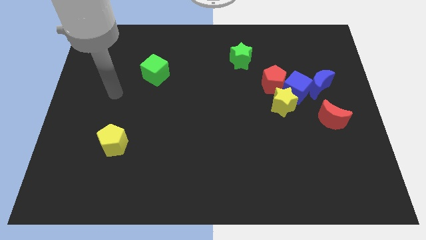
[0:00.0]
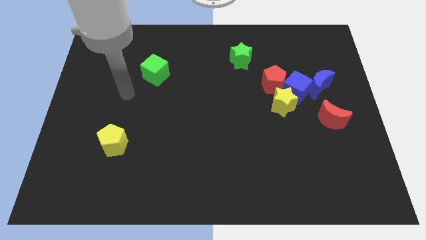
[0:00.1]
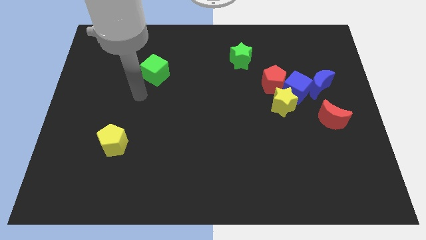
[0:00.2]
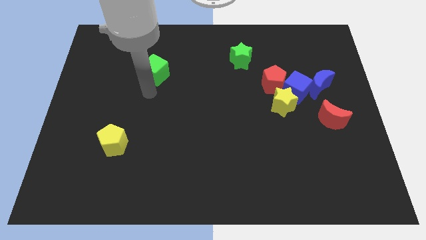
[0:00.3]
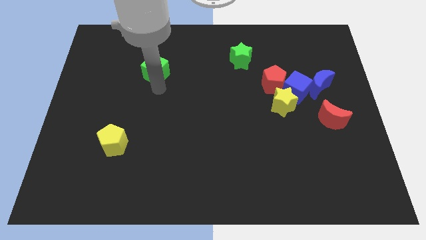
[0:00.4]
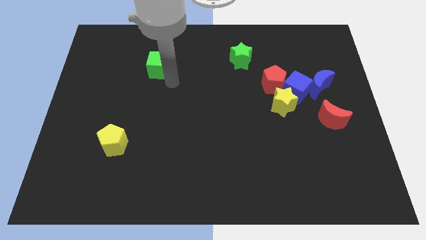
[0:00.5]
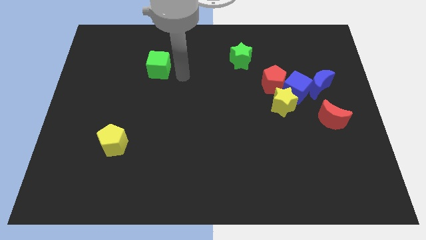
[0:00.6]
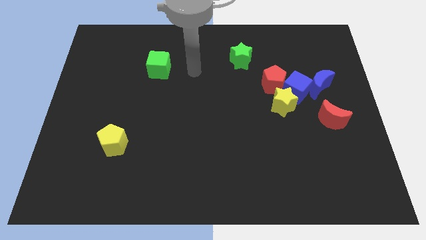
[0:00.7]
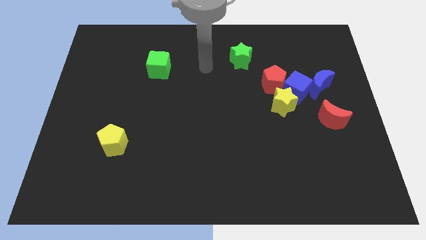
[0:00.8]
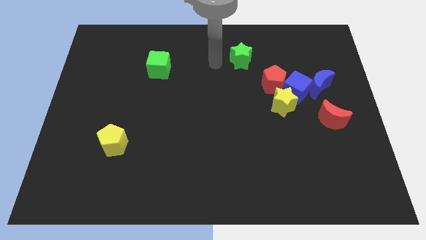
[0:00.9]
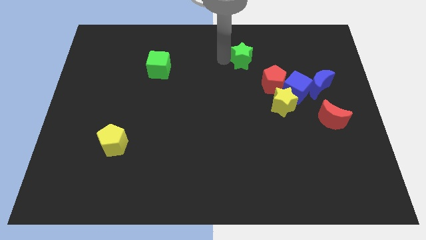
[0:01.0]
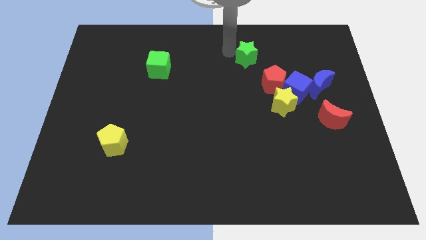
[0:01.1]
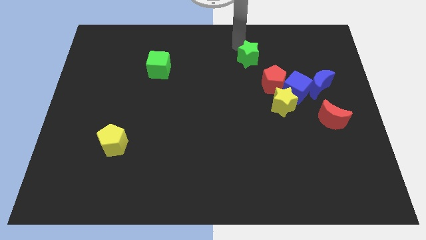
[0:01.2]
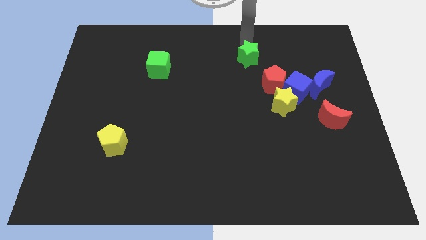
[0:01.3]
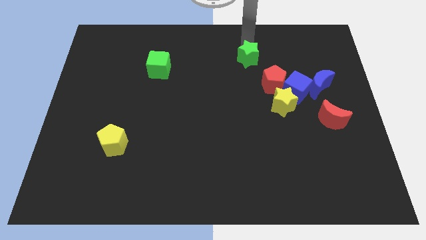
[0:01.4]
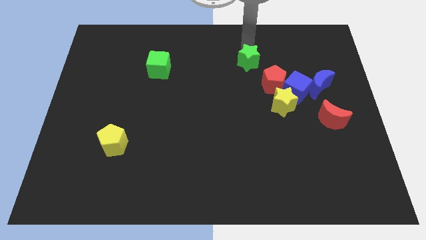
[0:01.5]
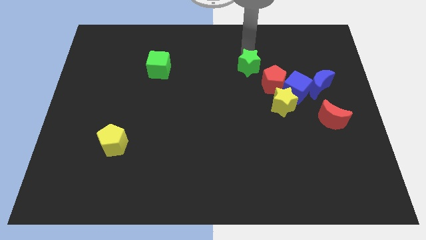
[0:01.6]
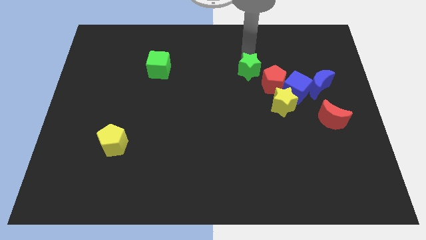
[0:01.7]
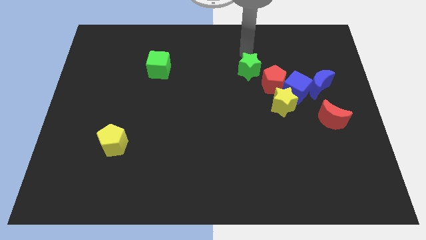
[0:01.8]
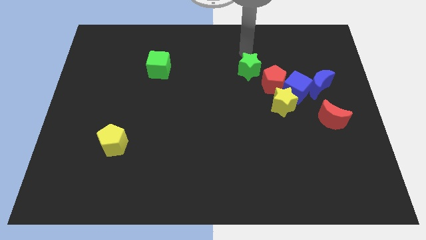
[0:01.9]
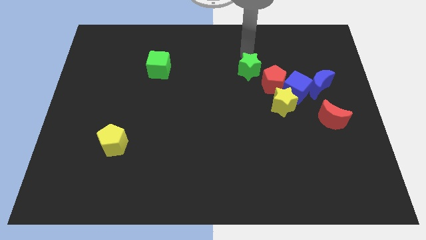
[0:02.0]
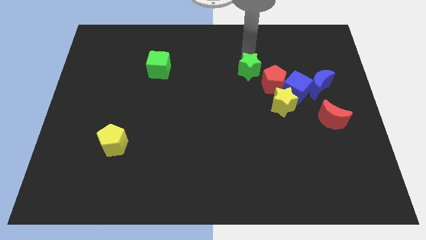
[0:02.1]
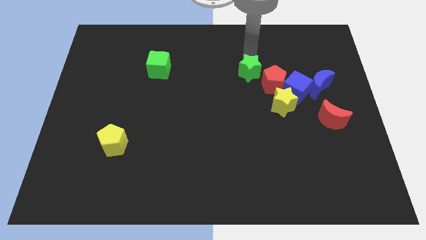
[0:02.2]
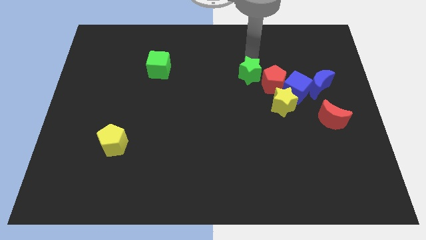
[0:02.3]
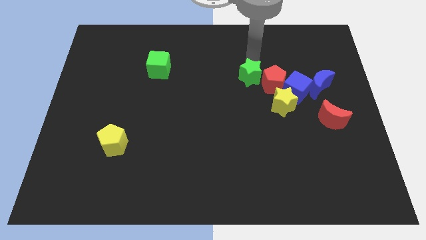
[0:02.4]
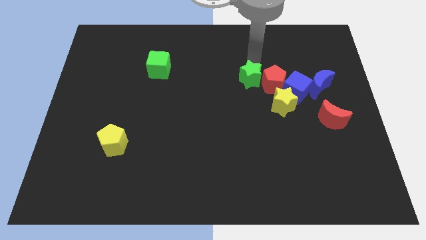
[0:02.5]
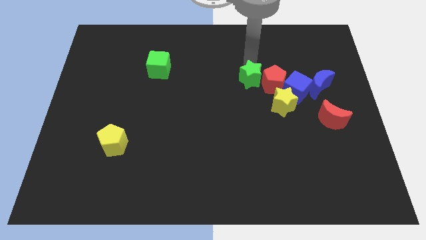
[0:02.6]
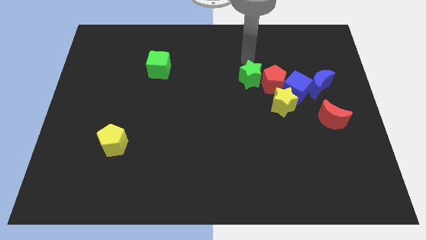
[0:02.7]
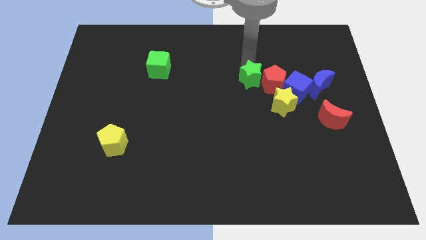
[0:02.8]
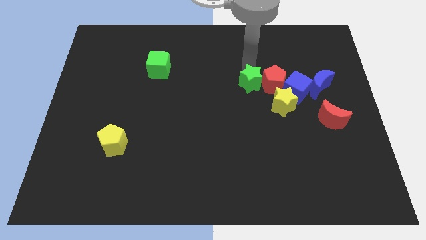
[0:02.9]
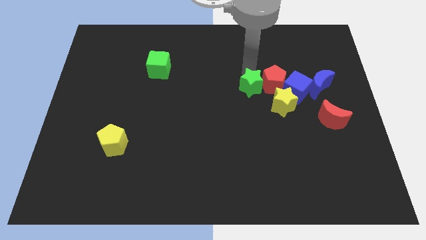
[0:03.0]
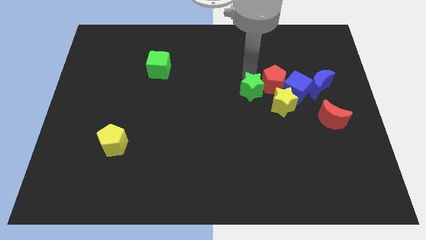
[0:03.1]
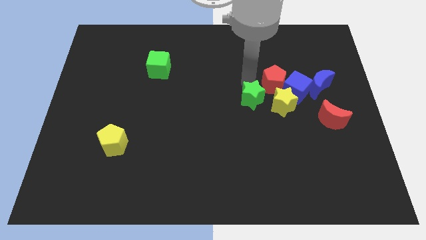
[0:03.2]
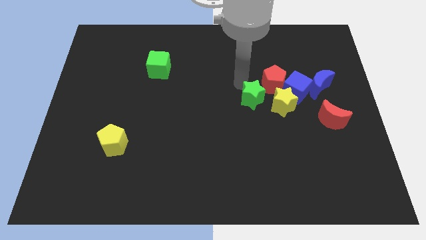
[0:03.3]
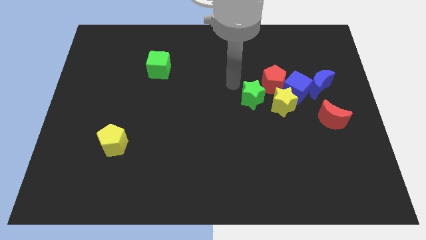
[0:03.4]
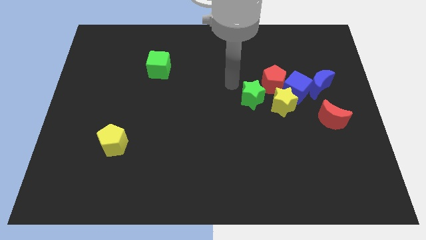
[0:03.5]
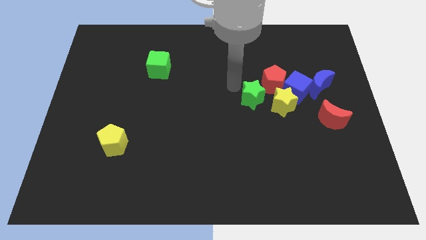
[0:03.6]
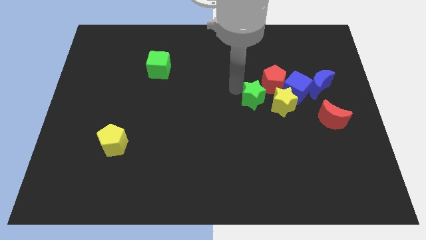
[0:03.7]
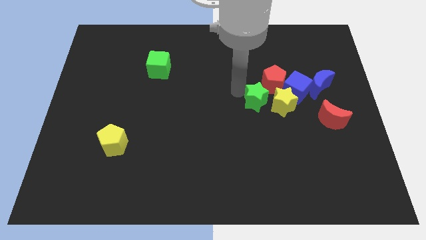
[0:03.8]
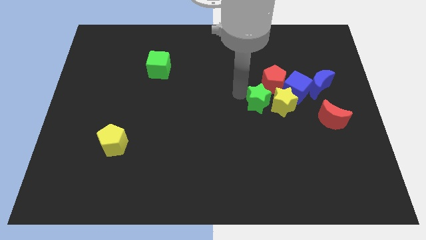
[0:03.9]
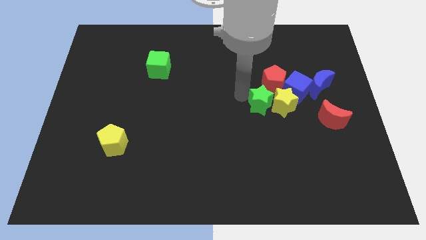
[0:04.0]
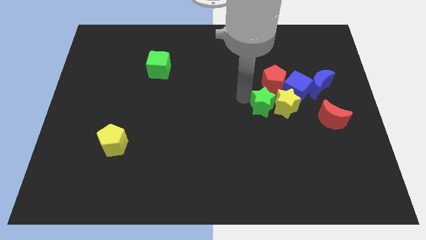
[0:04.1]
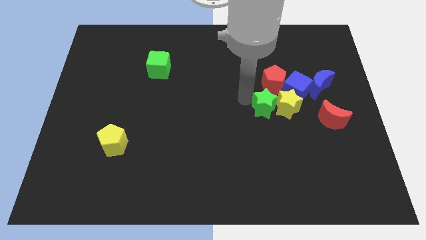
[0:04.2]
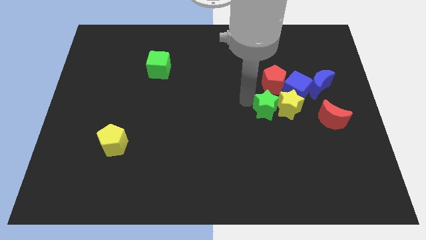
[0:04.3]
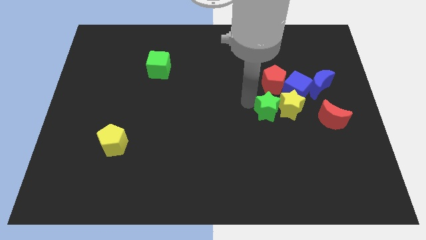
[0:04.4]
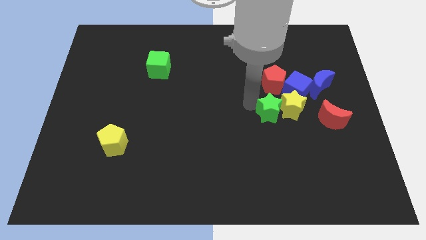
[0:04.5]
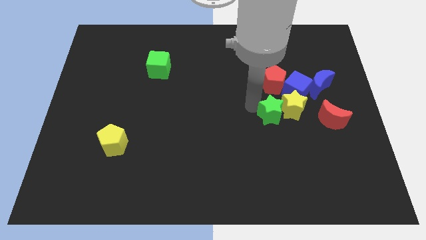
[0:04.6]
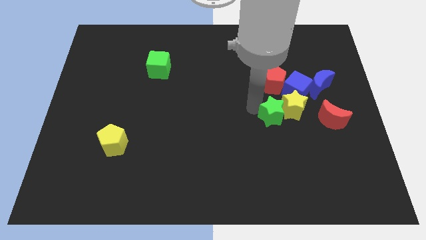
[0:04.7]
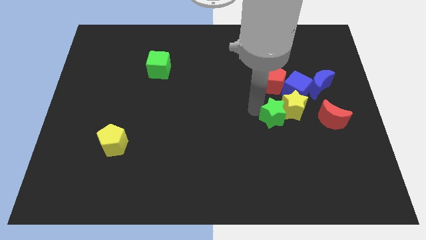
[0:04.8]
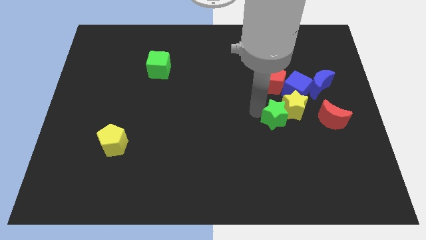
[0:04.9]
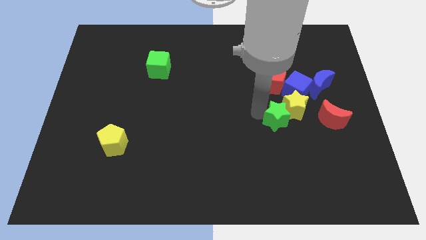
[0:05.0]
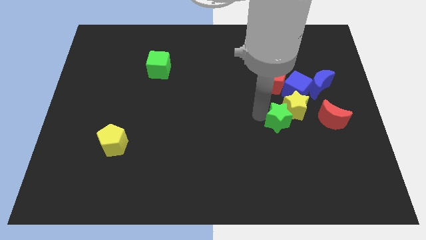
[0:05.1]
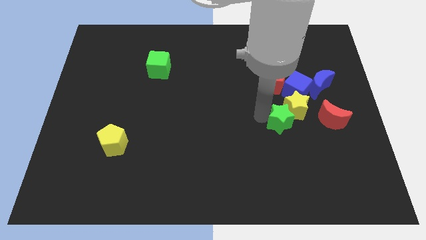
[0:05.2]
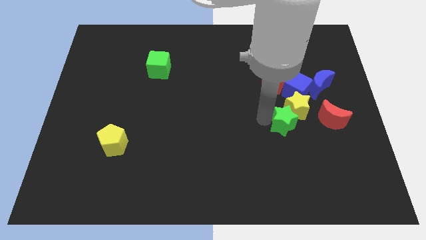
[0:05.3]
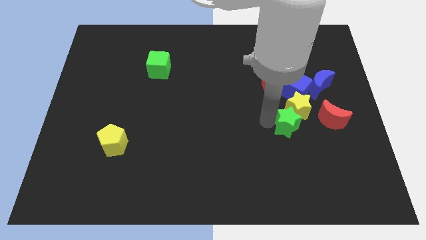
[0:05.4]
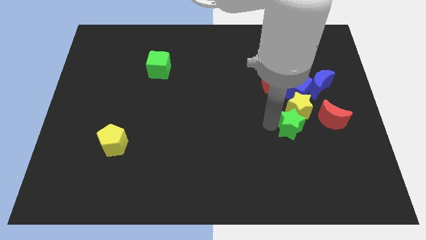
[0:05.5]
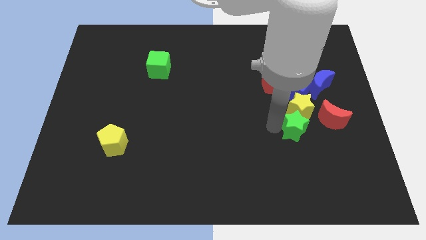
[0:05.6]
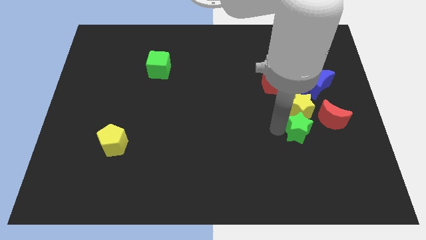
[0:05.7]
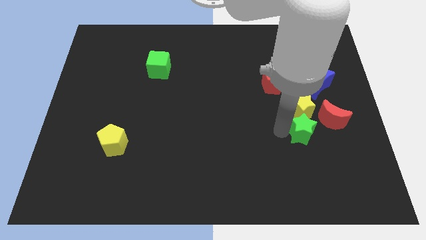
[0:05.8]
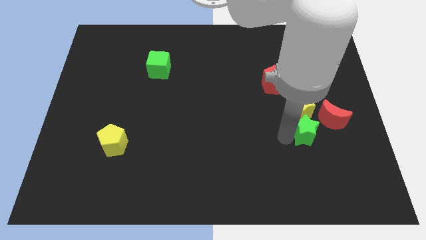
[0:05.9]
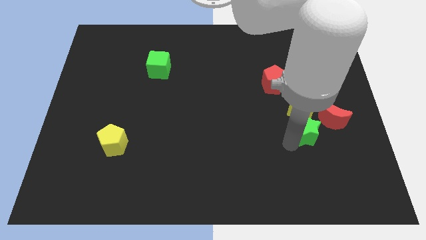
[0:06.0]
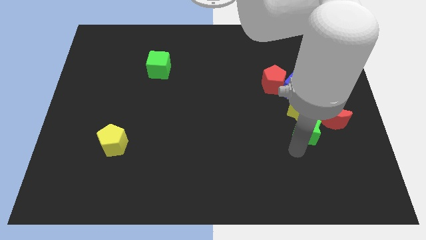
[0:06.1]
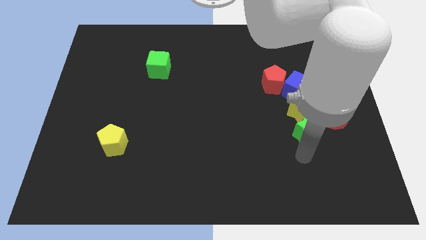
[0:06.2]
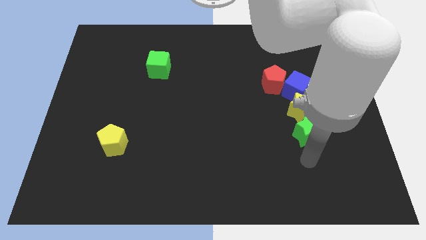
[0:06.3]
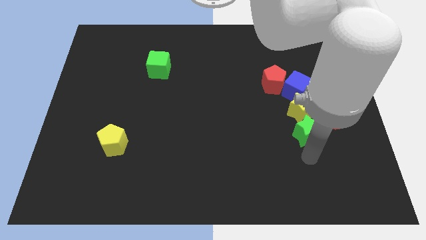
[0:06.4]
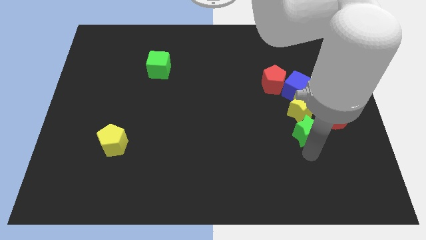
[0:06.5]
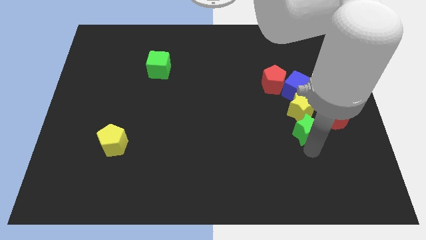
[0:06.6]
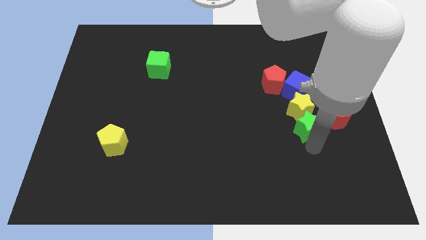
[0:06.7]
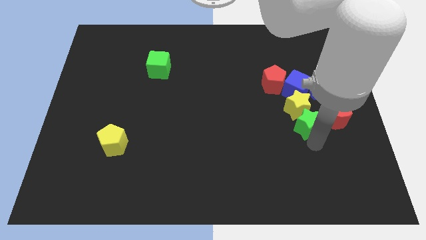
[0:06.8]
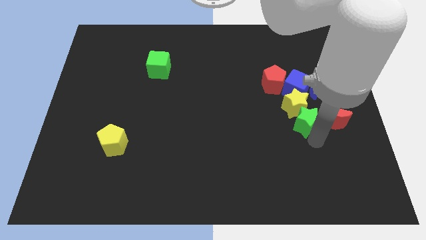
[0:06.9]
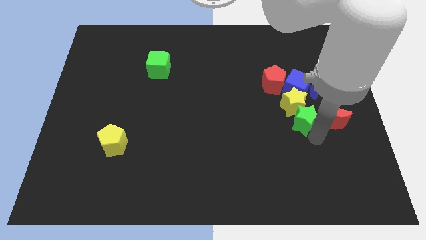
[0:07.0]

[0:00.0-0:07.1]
slide the green star to the top left of the red moon
